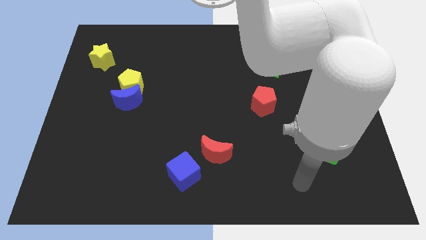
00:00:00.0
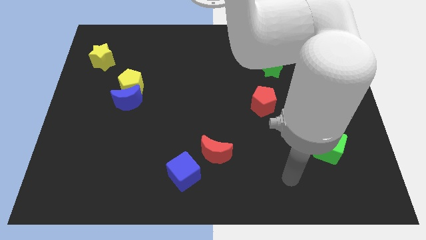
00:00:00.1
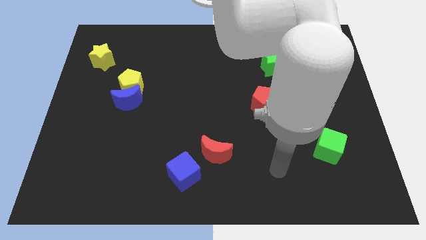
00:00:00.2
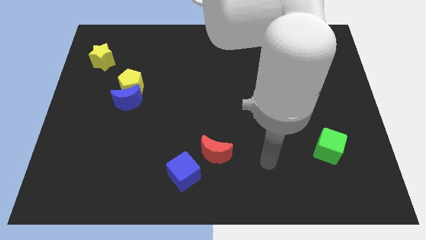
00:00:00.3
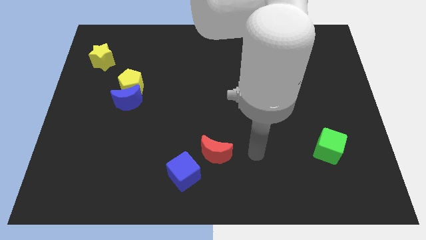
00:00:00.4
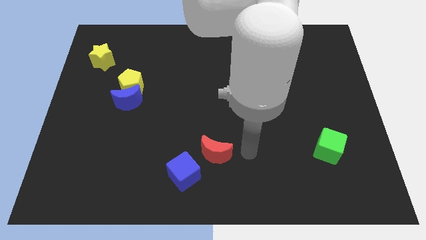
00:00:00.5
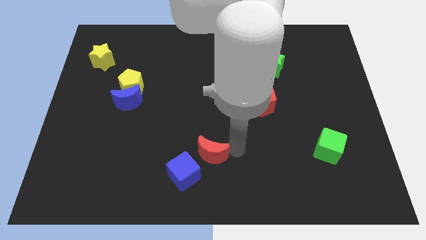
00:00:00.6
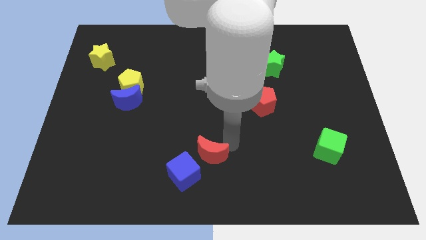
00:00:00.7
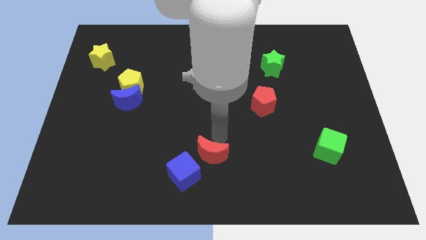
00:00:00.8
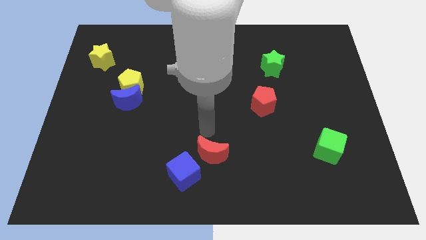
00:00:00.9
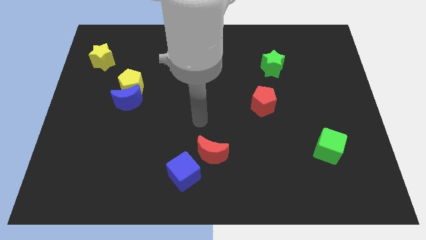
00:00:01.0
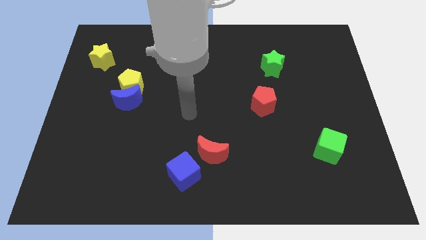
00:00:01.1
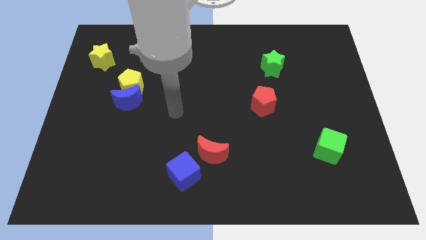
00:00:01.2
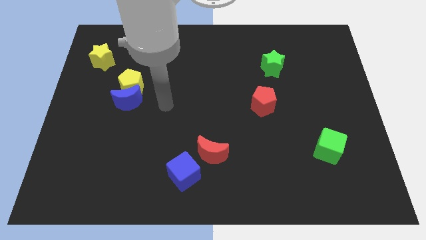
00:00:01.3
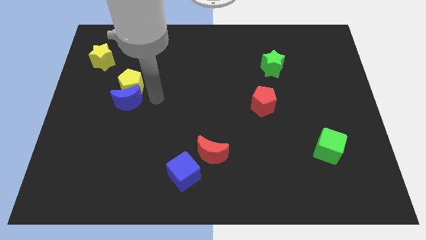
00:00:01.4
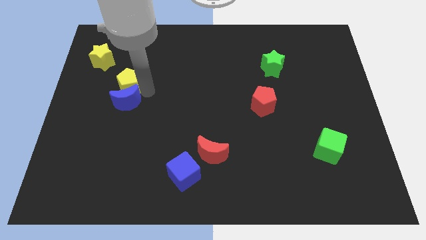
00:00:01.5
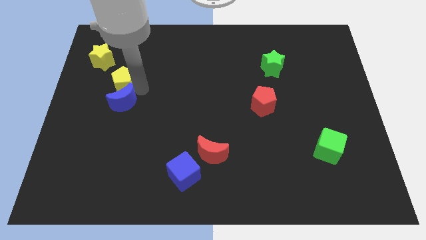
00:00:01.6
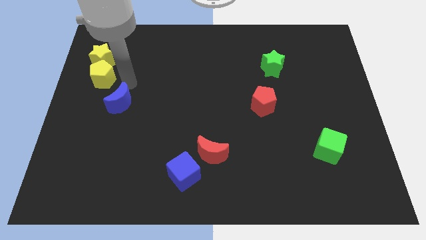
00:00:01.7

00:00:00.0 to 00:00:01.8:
pull the blue moon apart from the yellow pentagon

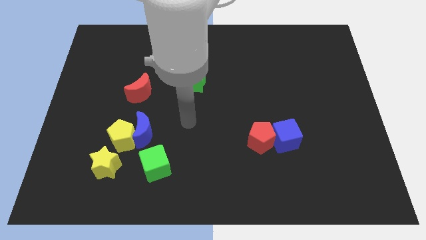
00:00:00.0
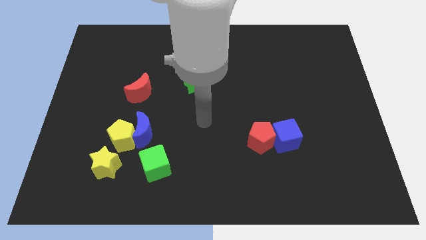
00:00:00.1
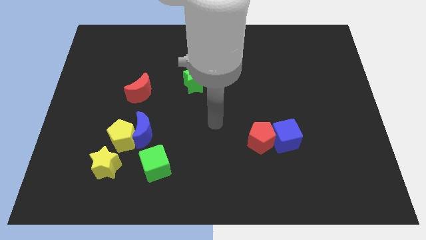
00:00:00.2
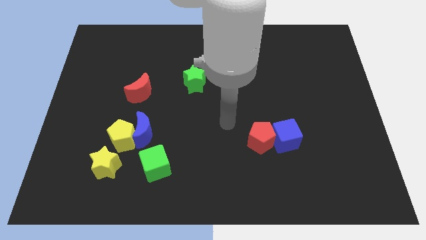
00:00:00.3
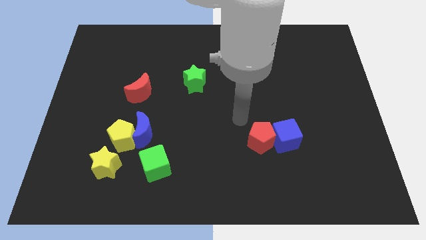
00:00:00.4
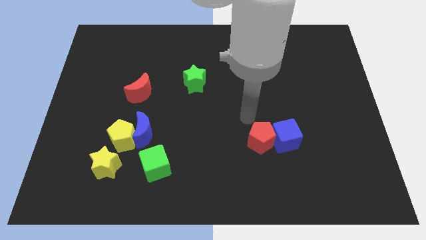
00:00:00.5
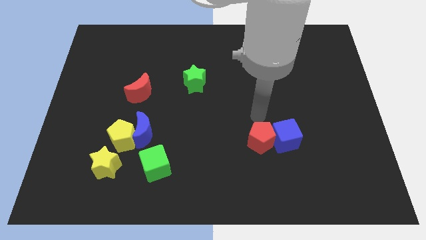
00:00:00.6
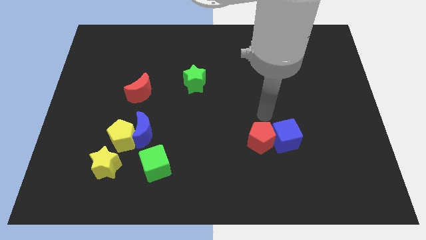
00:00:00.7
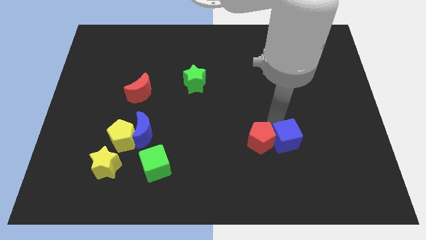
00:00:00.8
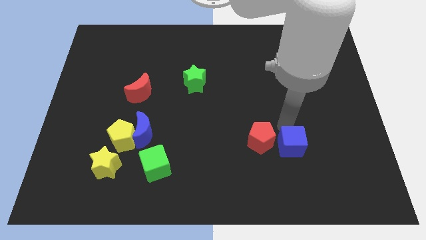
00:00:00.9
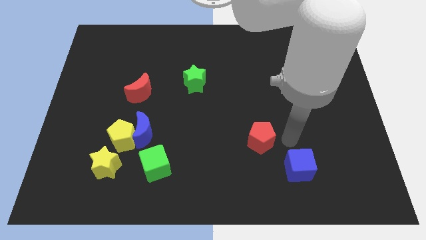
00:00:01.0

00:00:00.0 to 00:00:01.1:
move the red pentagon away from the blue cube

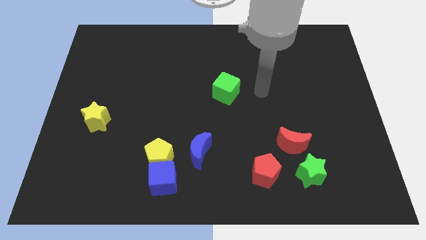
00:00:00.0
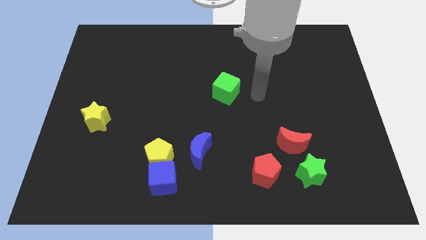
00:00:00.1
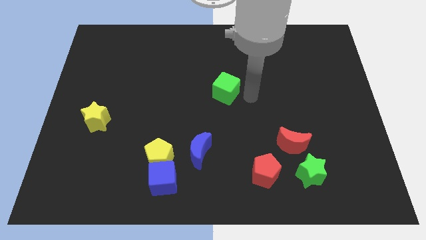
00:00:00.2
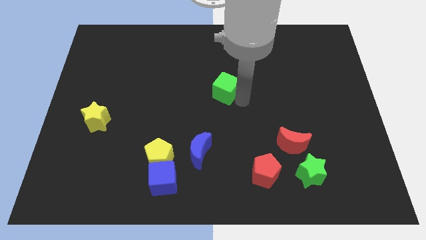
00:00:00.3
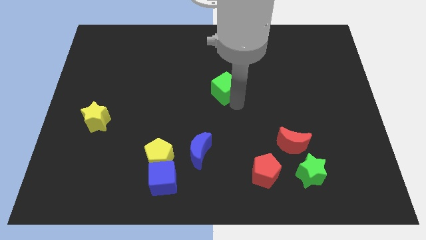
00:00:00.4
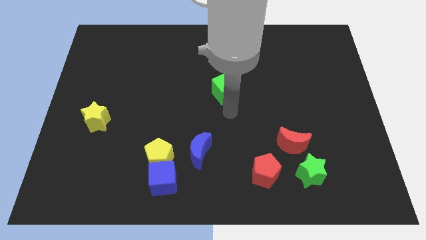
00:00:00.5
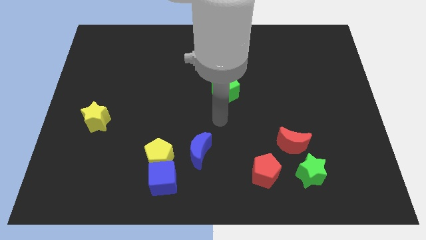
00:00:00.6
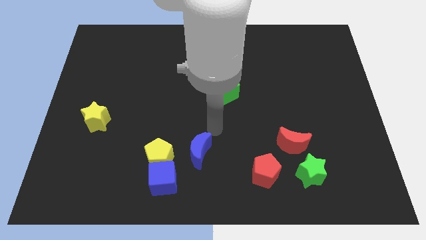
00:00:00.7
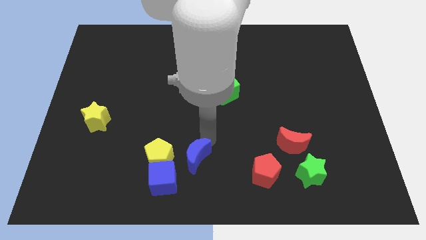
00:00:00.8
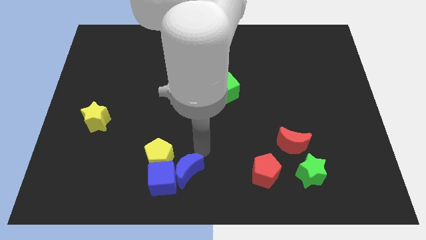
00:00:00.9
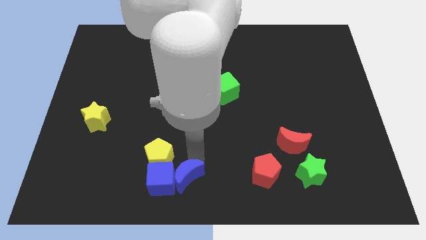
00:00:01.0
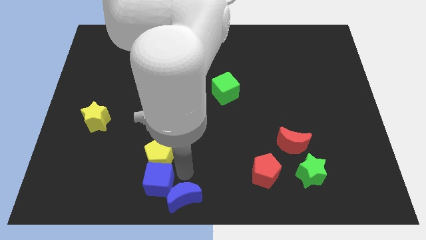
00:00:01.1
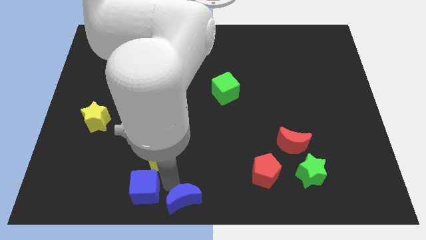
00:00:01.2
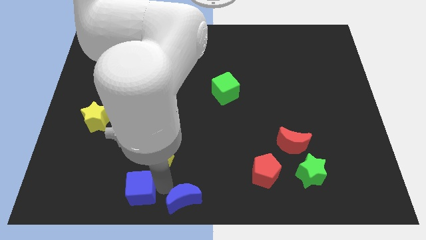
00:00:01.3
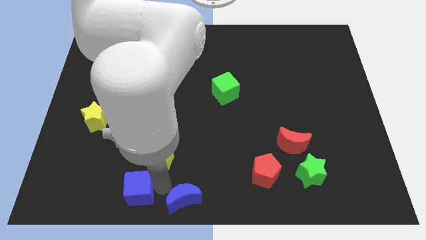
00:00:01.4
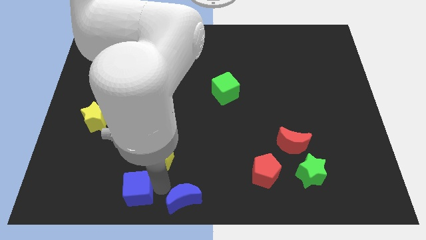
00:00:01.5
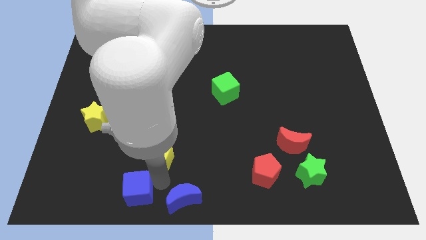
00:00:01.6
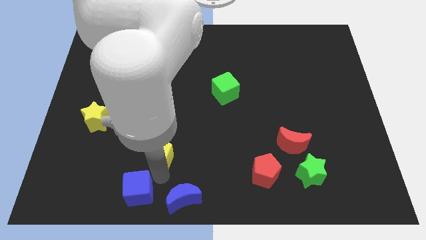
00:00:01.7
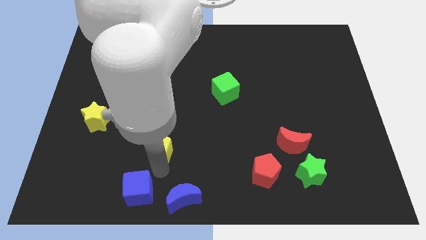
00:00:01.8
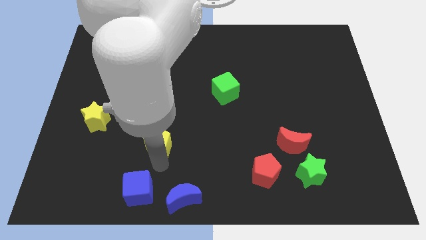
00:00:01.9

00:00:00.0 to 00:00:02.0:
pull the yellow pentagon apart from the blue cube and blue moon

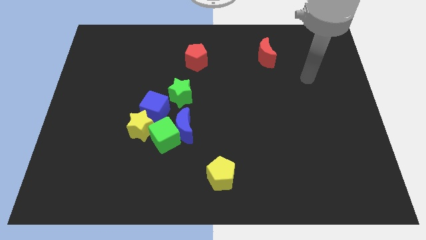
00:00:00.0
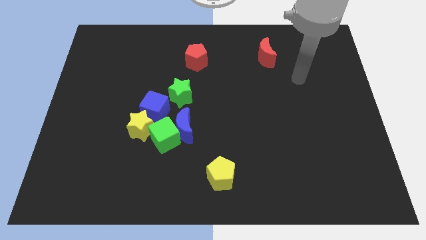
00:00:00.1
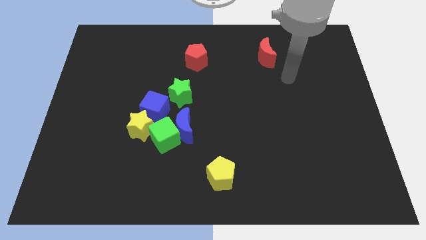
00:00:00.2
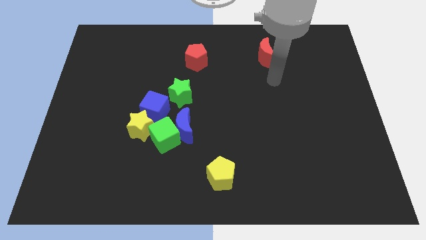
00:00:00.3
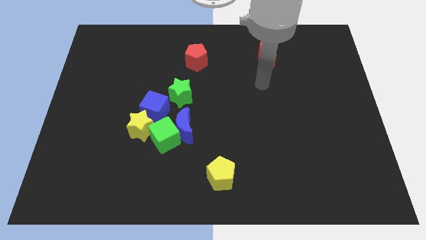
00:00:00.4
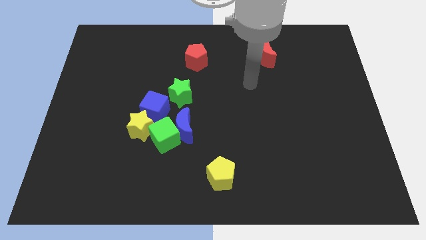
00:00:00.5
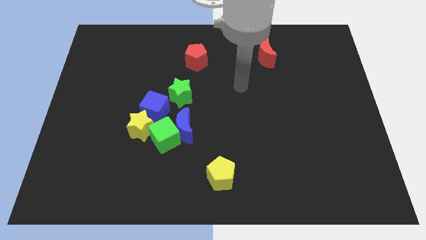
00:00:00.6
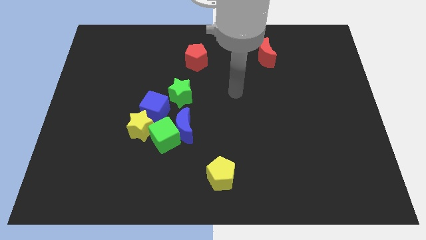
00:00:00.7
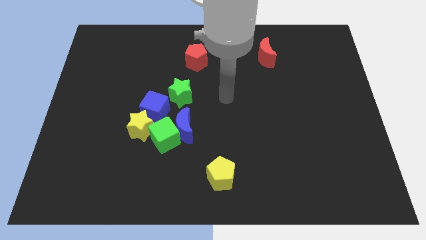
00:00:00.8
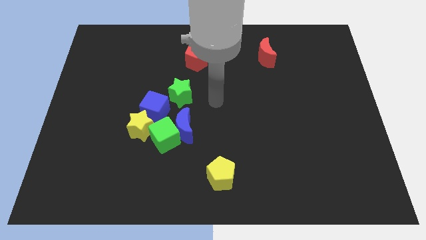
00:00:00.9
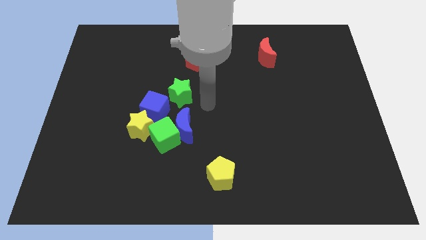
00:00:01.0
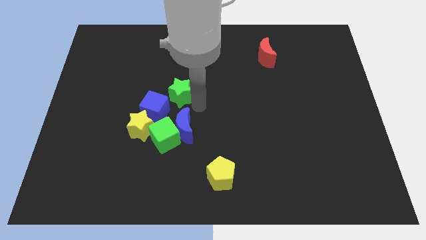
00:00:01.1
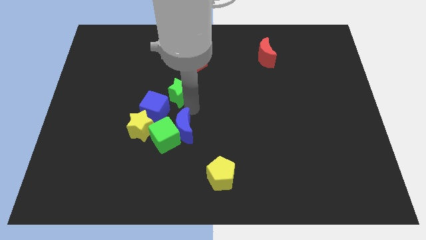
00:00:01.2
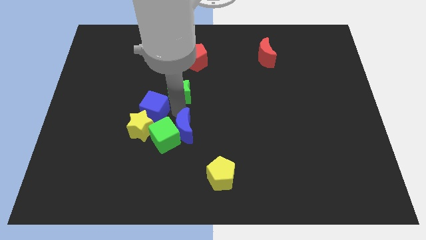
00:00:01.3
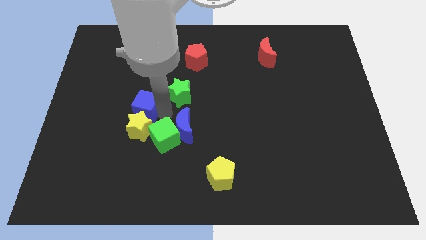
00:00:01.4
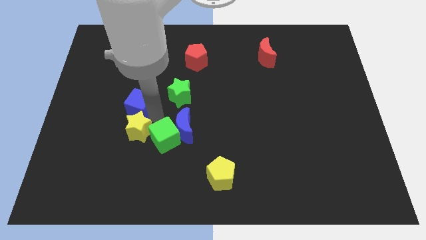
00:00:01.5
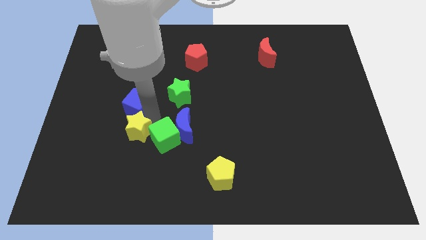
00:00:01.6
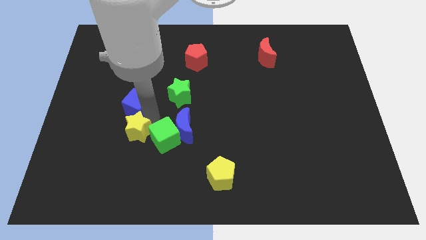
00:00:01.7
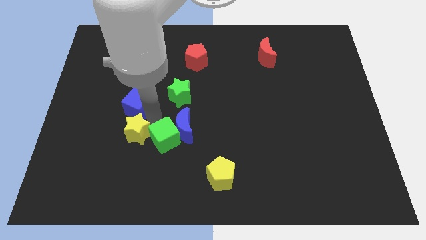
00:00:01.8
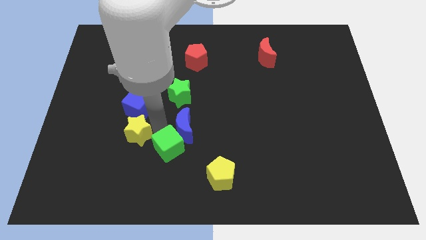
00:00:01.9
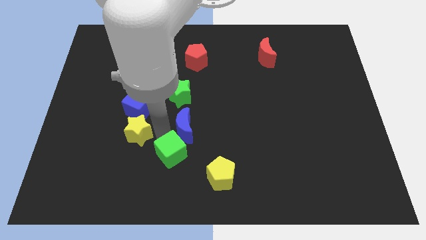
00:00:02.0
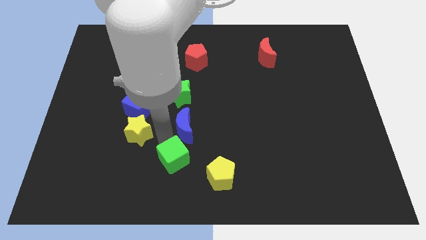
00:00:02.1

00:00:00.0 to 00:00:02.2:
move the green cube away from the blue moon, yellow star, and blue cube

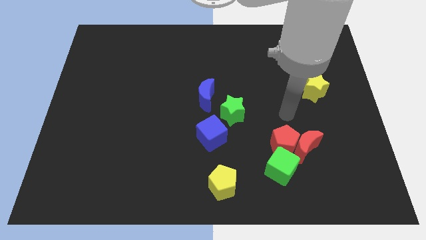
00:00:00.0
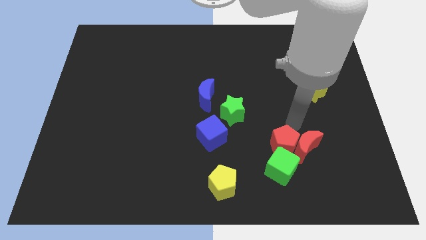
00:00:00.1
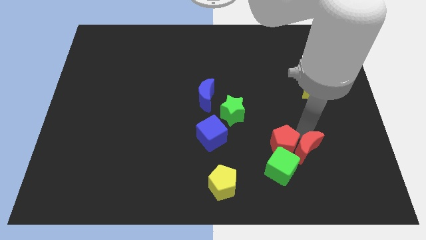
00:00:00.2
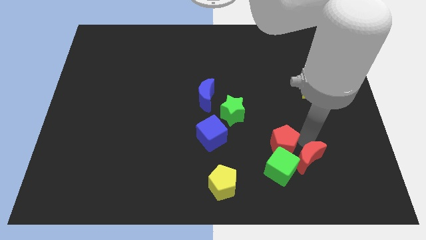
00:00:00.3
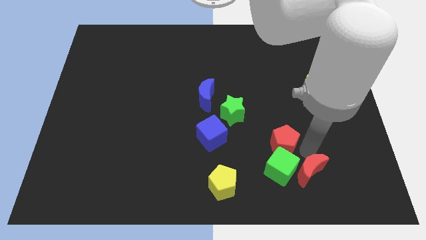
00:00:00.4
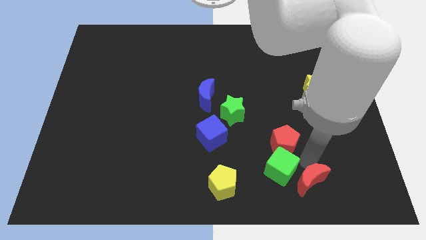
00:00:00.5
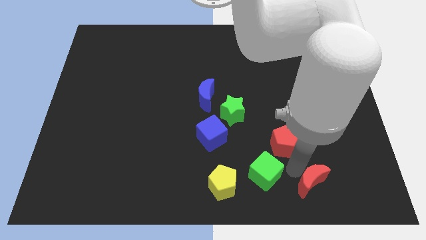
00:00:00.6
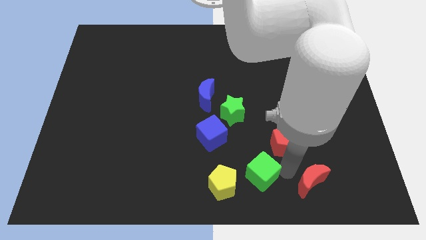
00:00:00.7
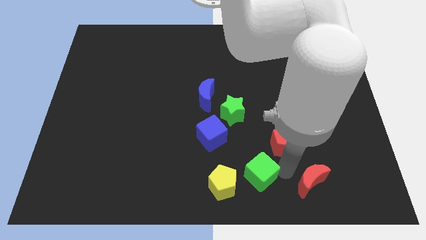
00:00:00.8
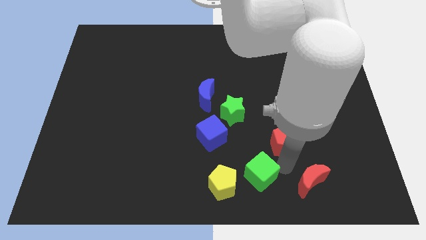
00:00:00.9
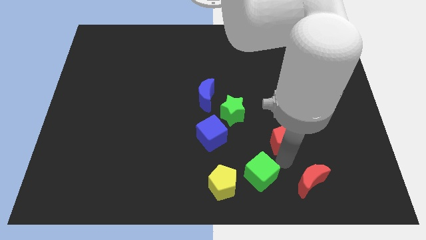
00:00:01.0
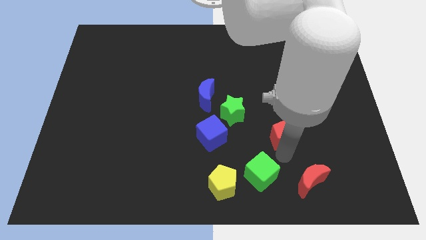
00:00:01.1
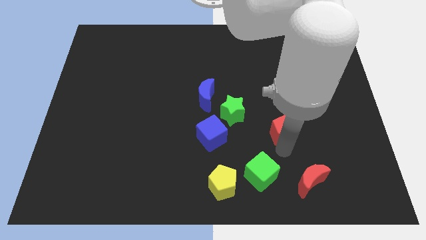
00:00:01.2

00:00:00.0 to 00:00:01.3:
pull the red pentagon apart from the red moon and green cube

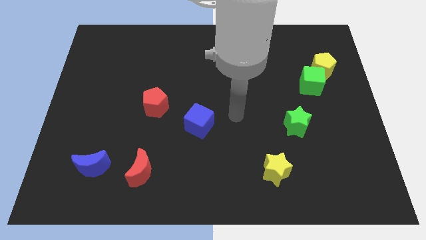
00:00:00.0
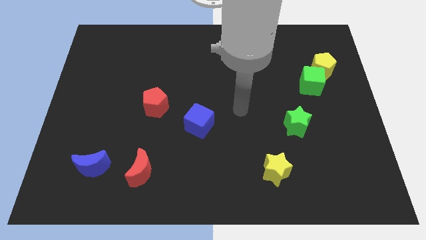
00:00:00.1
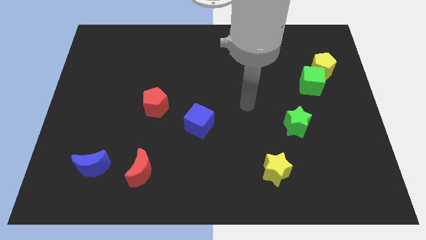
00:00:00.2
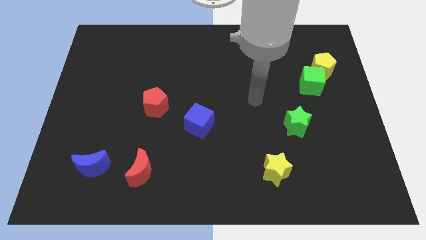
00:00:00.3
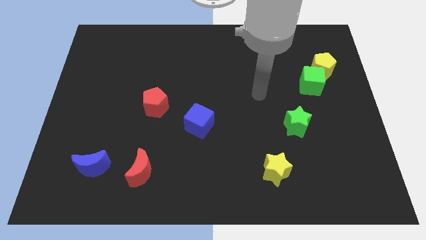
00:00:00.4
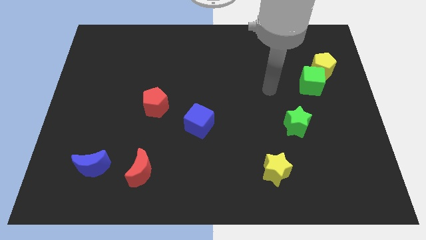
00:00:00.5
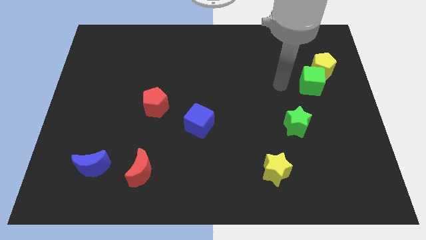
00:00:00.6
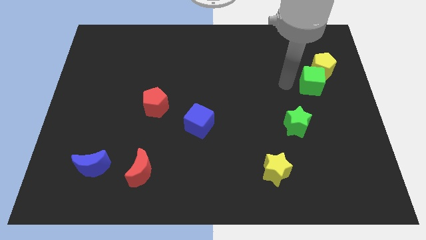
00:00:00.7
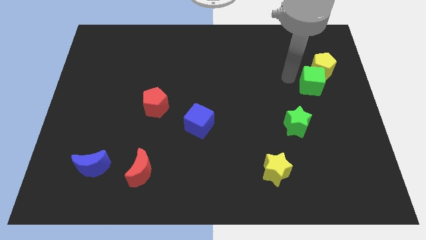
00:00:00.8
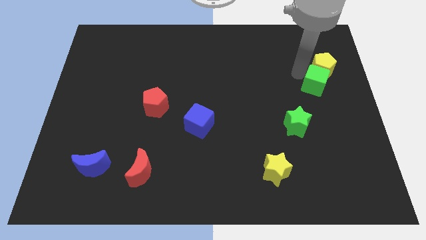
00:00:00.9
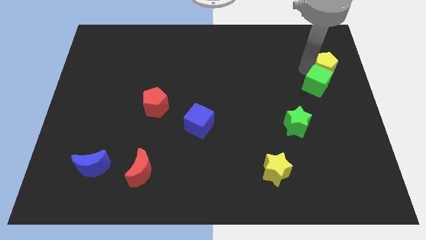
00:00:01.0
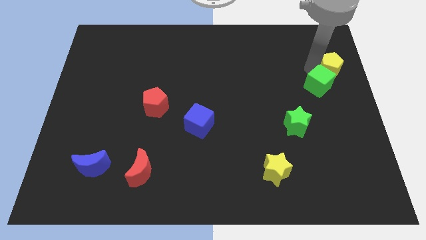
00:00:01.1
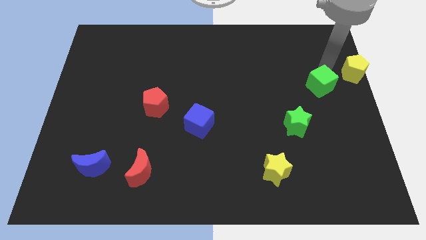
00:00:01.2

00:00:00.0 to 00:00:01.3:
separate the green cube from the yellow pentagon
